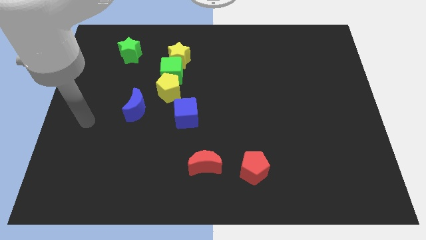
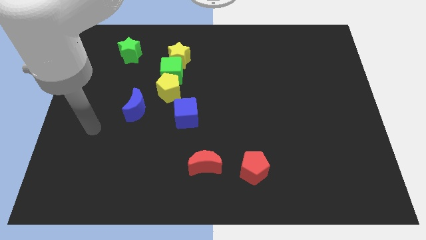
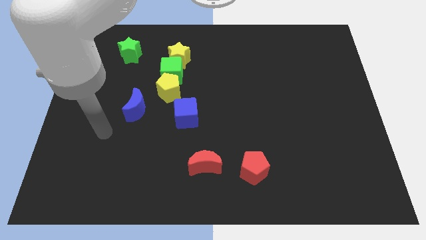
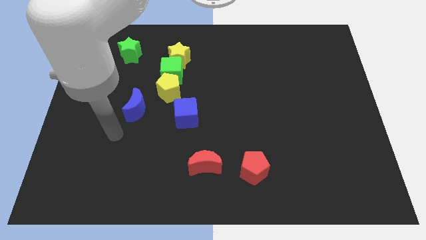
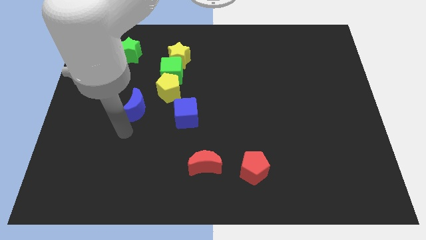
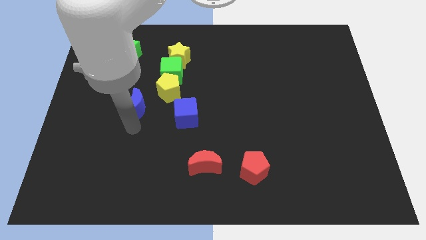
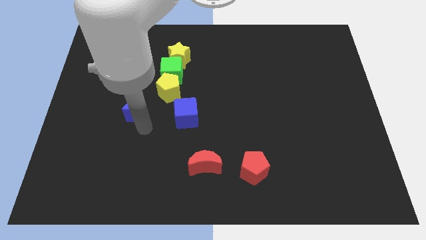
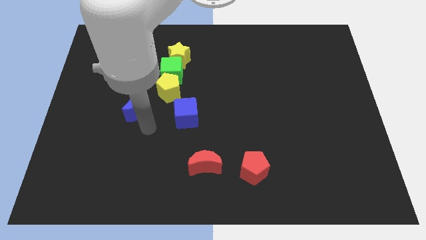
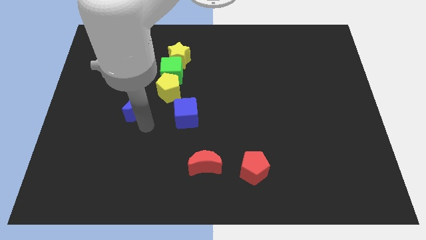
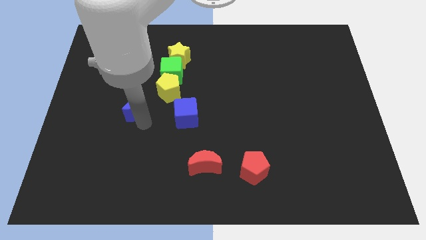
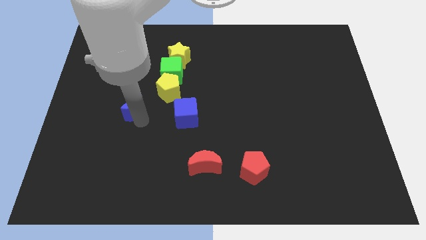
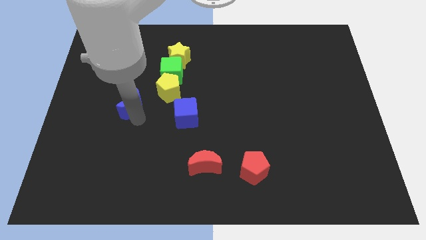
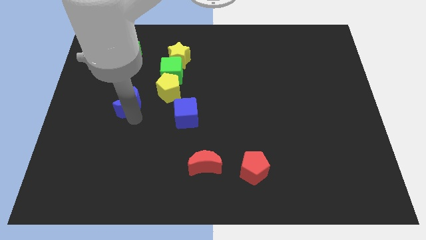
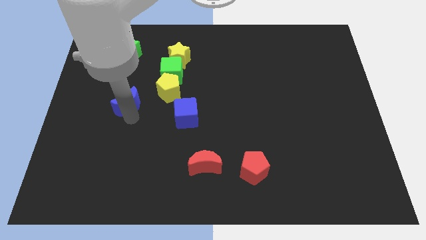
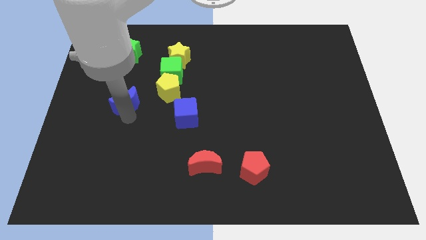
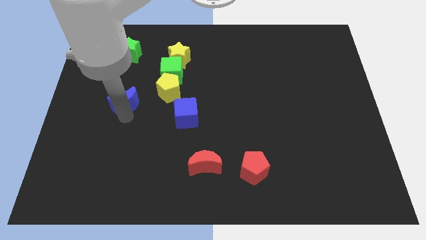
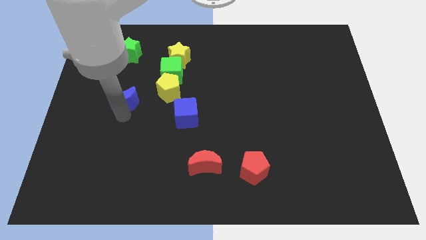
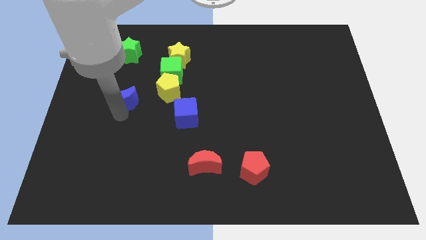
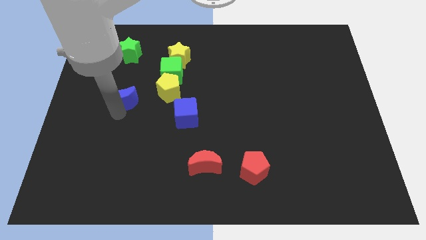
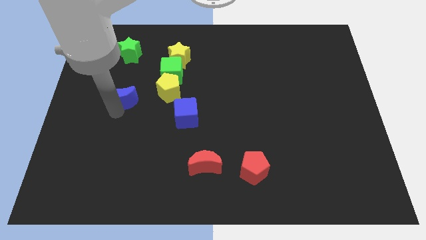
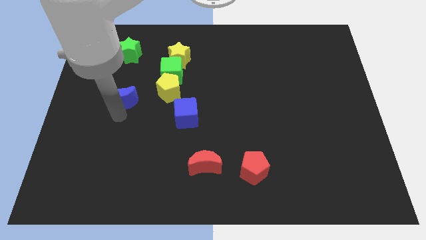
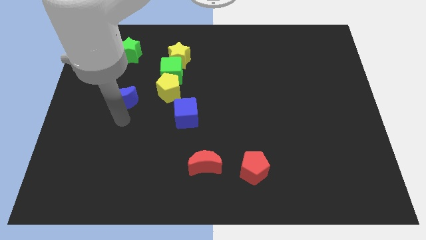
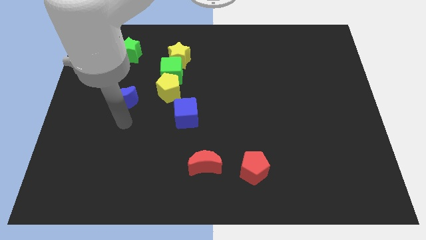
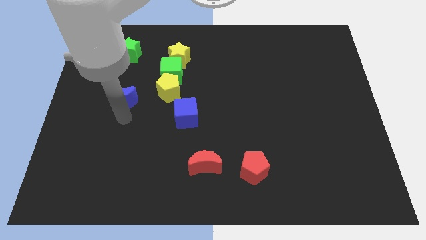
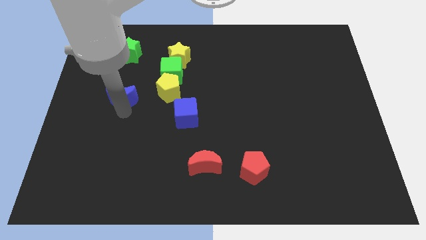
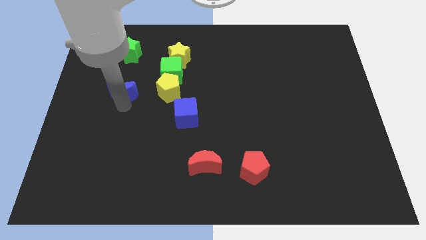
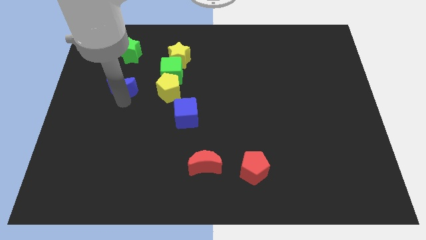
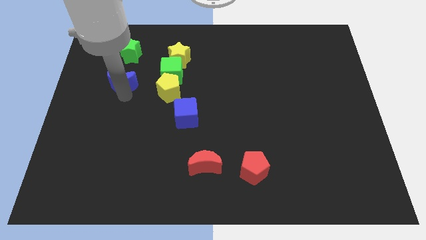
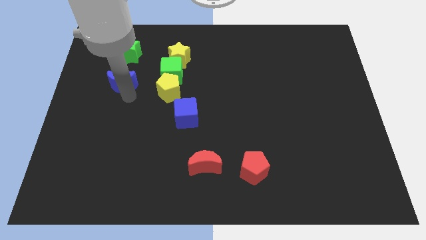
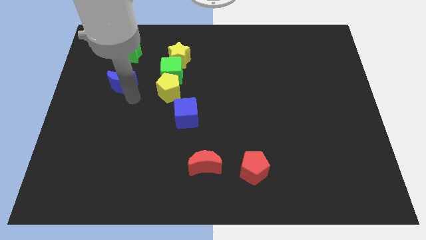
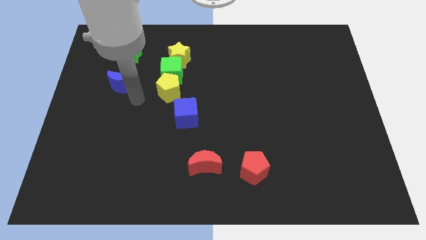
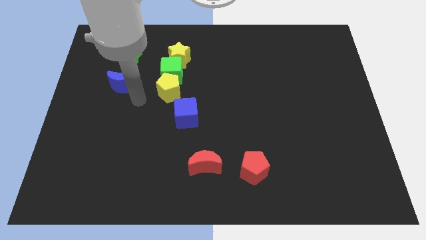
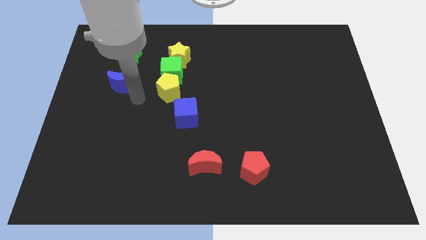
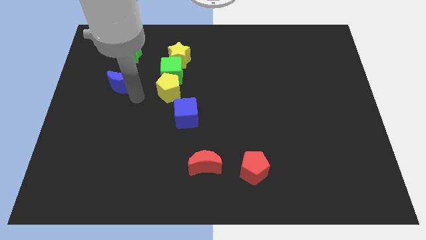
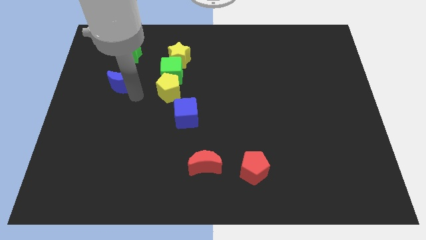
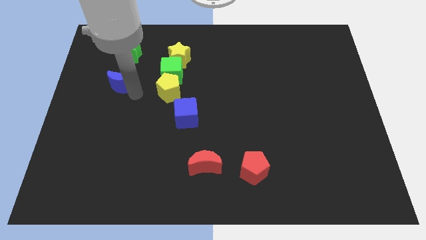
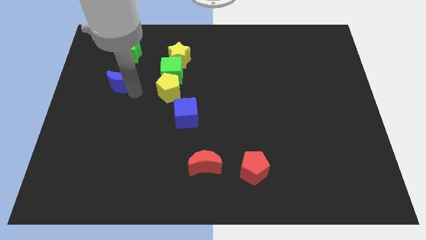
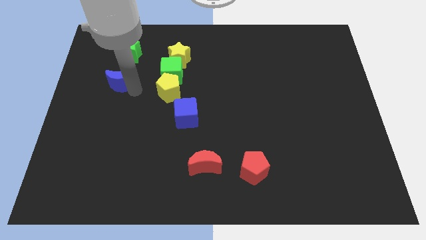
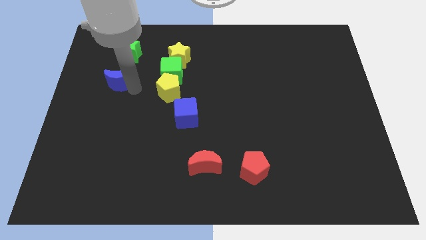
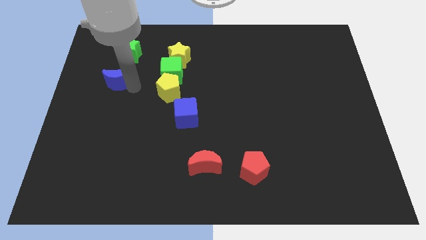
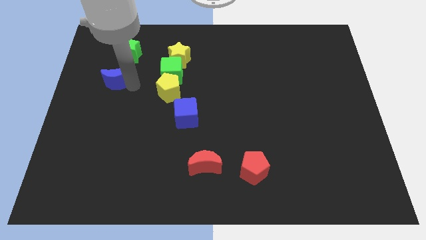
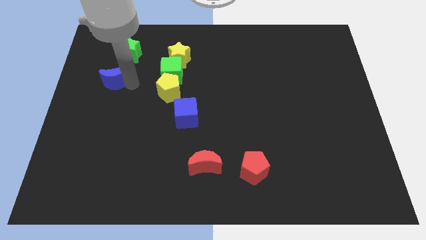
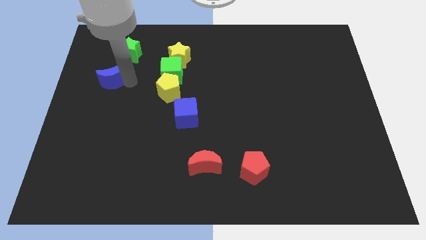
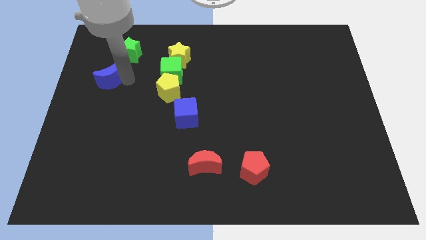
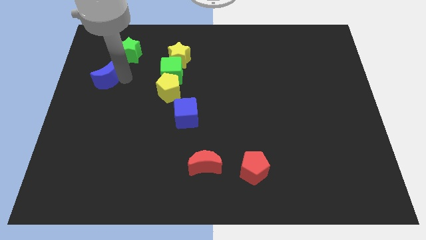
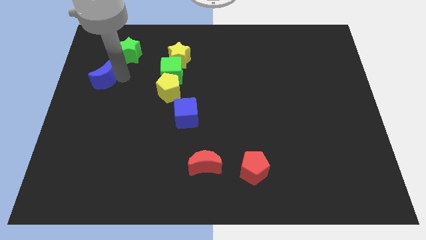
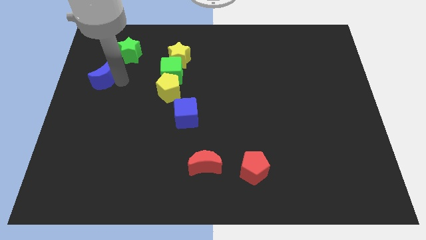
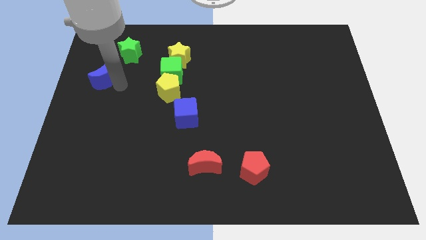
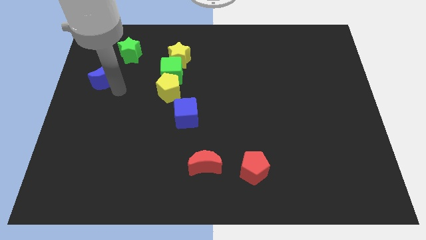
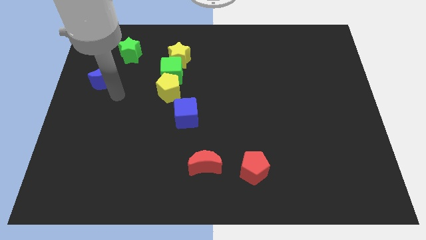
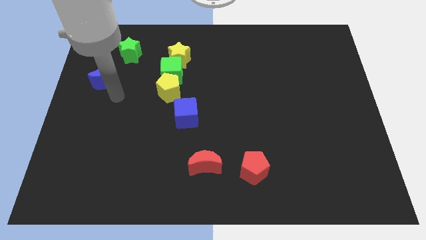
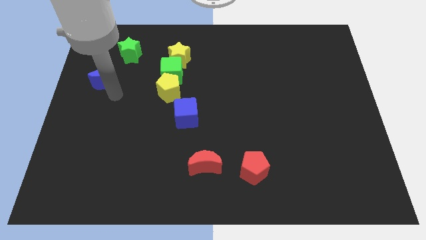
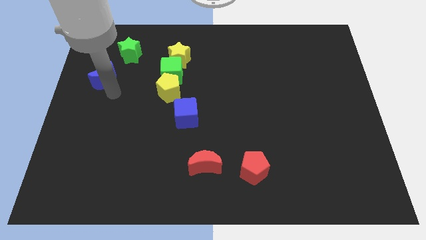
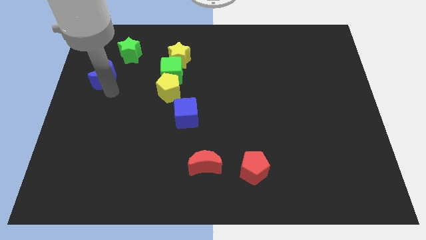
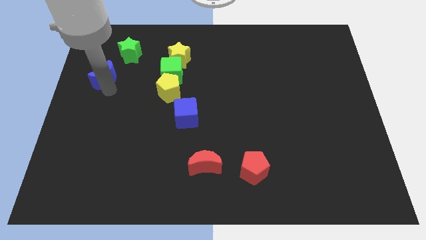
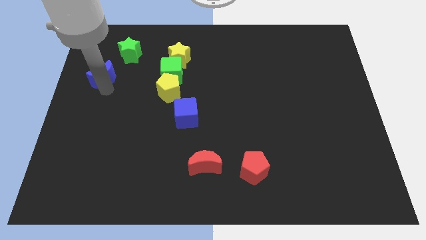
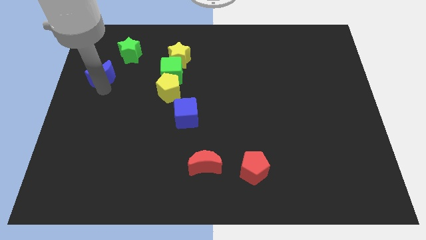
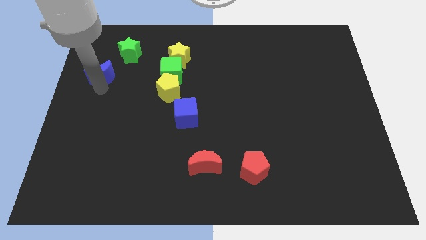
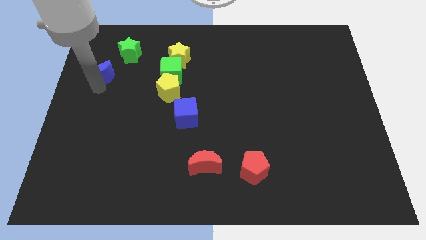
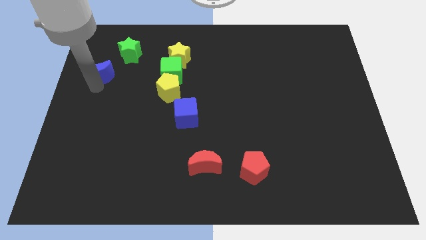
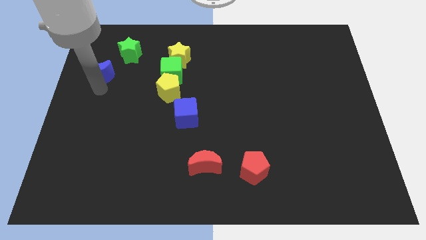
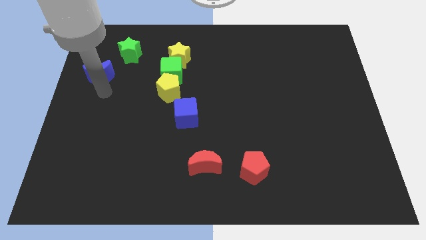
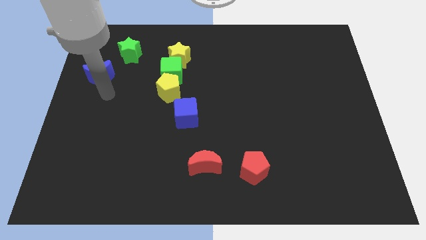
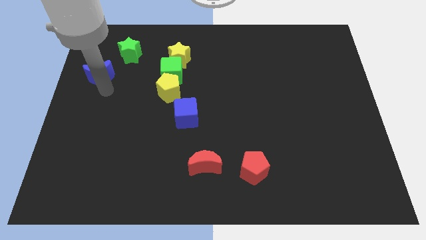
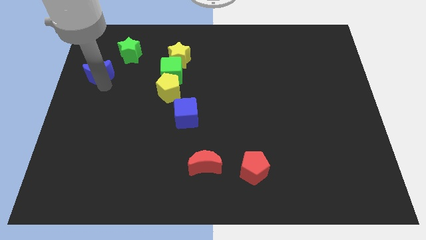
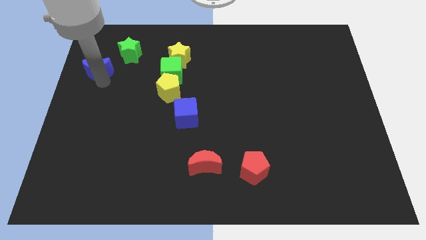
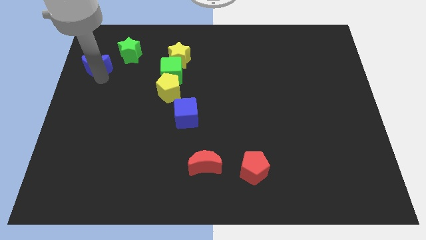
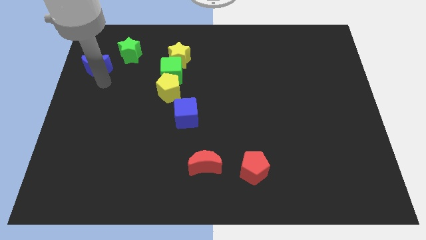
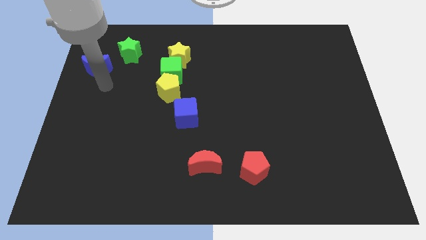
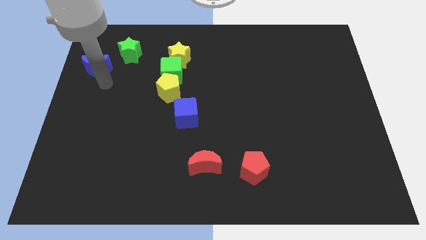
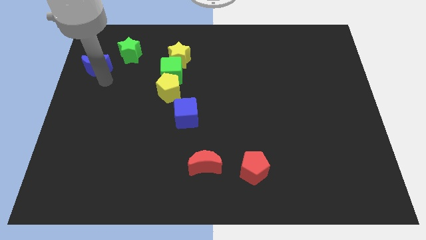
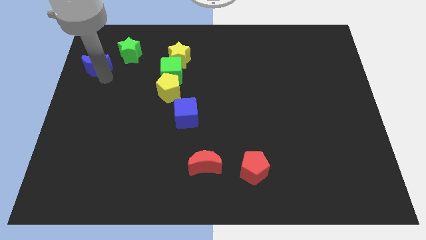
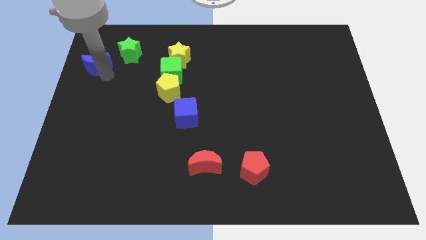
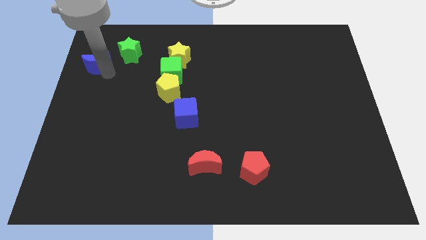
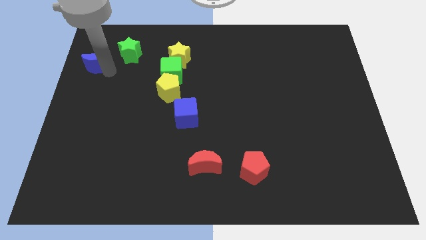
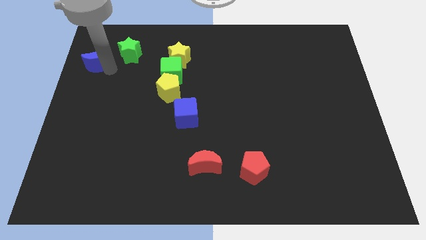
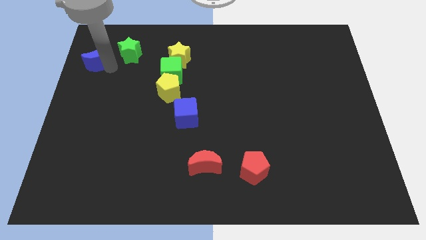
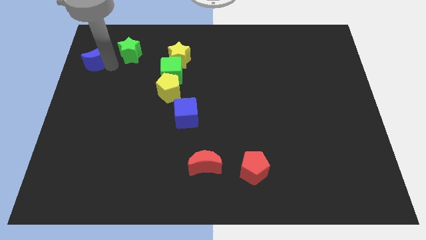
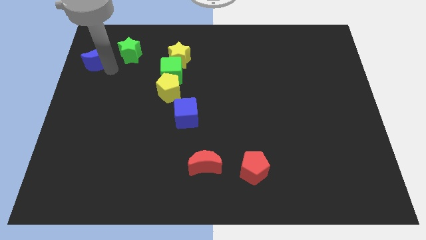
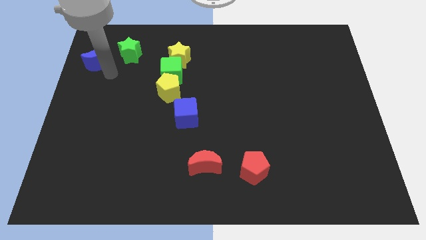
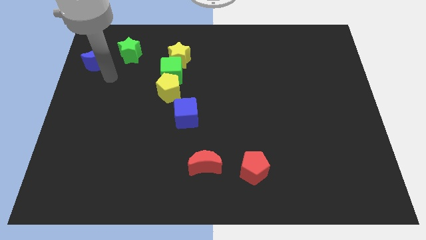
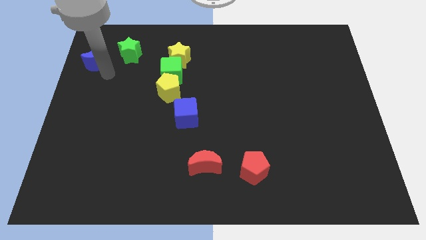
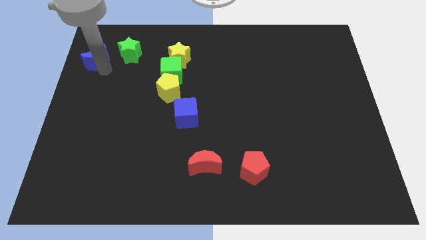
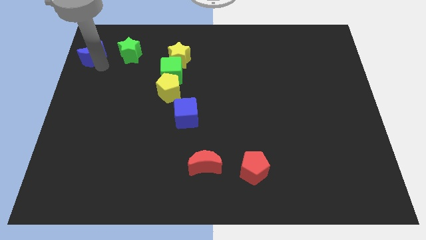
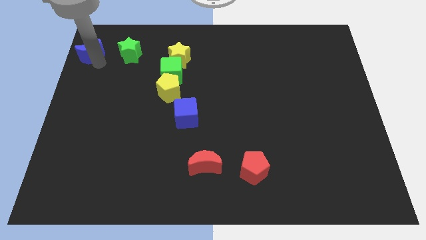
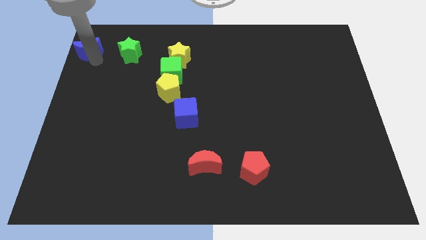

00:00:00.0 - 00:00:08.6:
put the blue moon to the top left of the board
